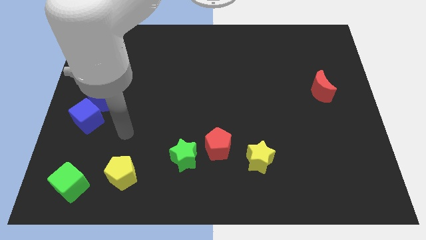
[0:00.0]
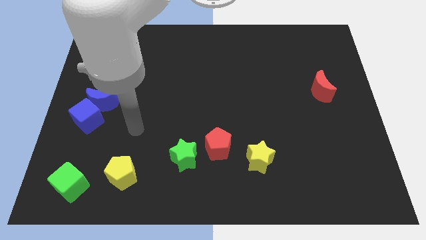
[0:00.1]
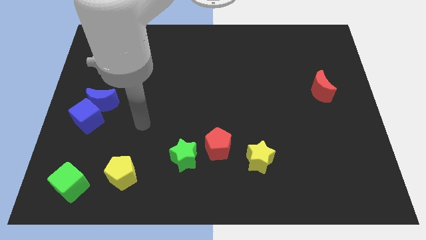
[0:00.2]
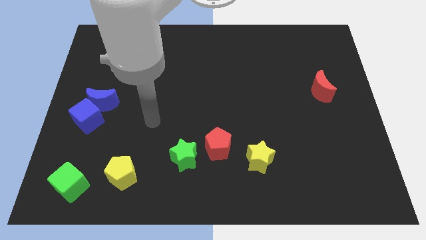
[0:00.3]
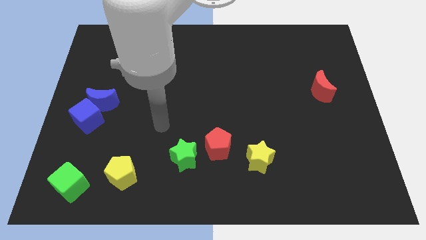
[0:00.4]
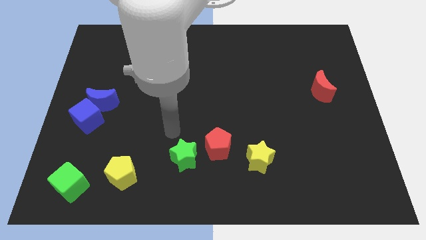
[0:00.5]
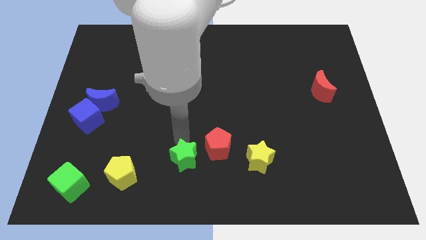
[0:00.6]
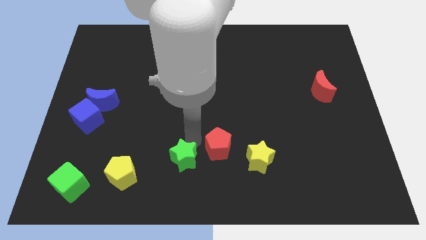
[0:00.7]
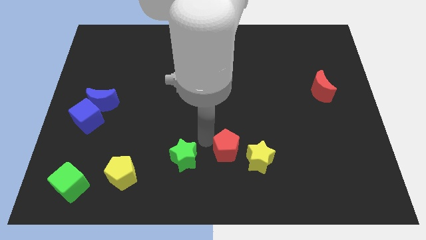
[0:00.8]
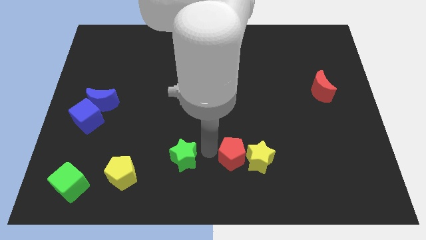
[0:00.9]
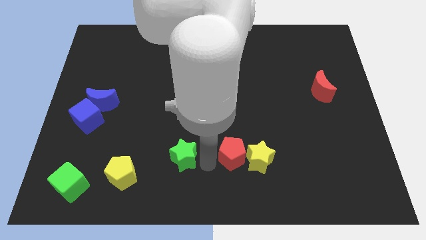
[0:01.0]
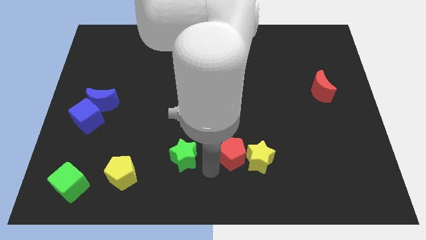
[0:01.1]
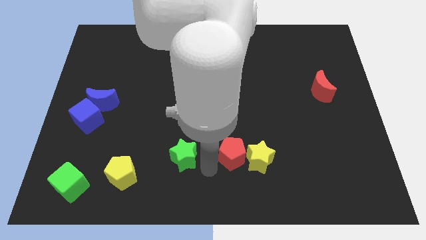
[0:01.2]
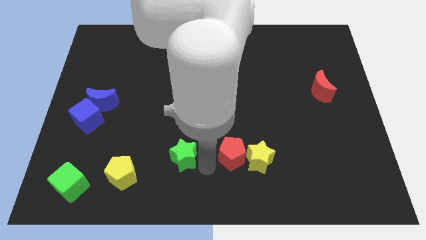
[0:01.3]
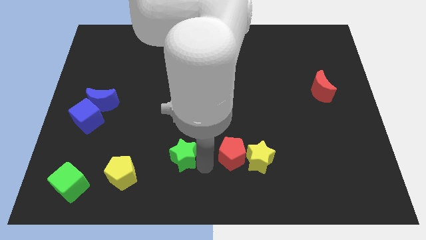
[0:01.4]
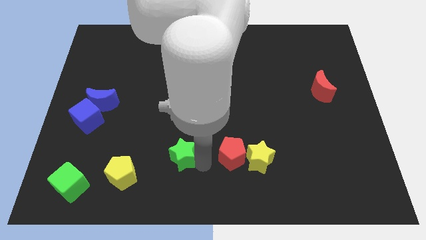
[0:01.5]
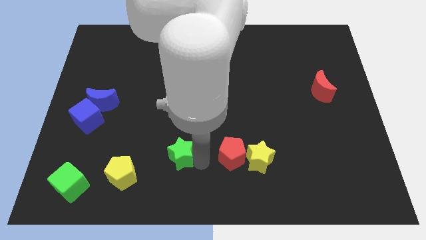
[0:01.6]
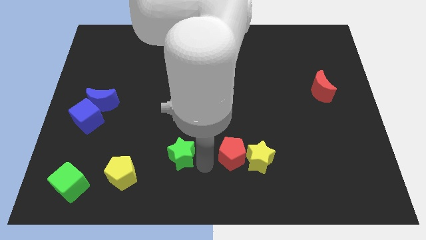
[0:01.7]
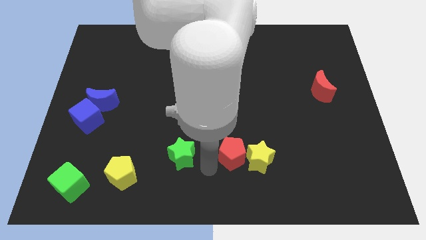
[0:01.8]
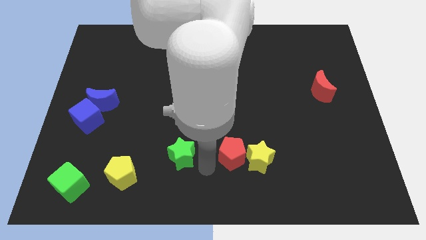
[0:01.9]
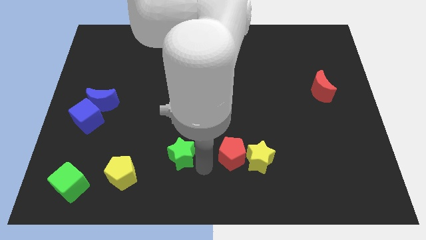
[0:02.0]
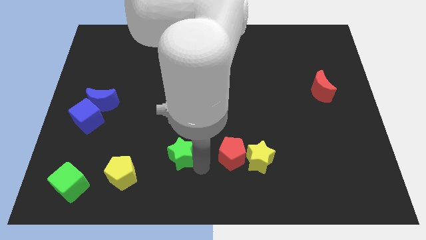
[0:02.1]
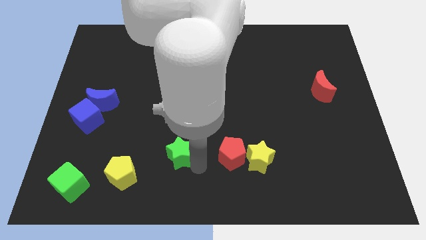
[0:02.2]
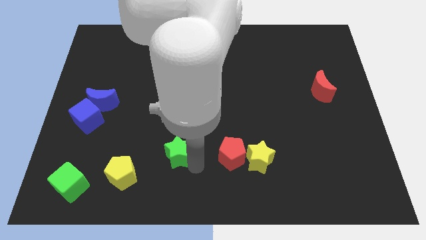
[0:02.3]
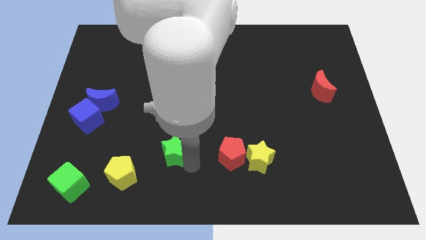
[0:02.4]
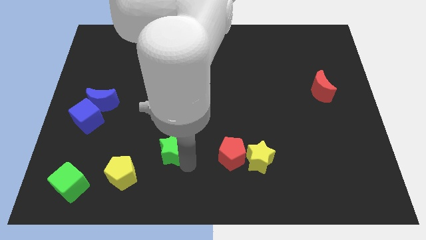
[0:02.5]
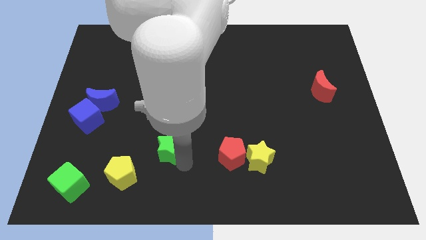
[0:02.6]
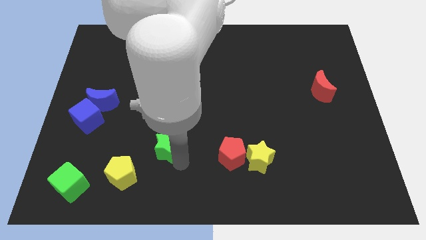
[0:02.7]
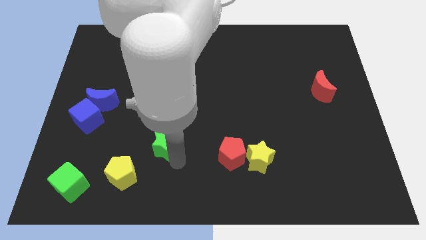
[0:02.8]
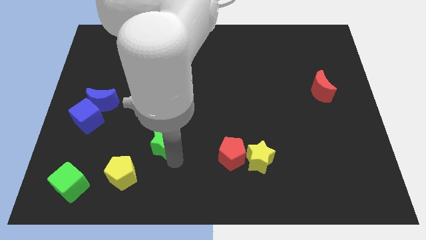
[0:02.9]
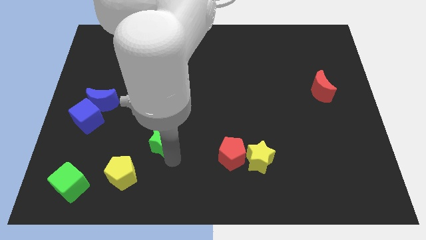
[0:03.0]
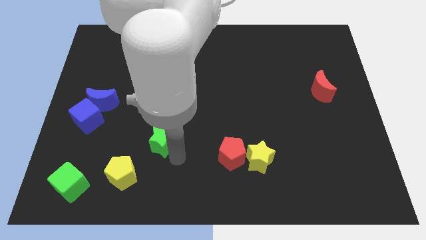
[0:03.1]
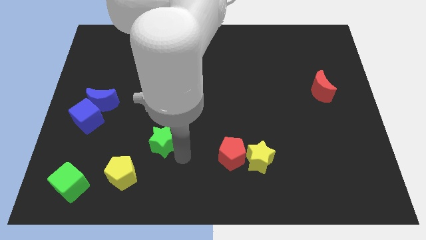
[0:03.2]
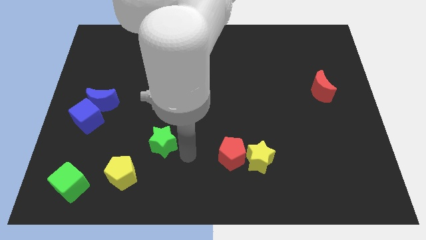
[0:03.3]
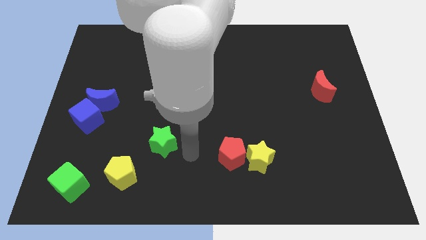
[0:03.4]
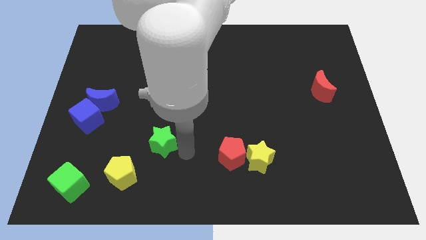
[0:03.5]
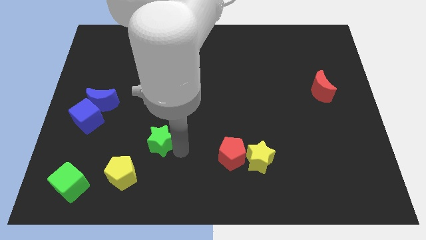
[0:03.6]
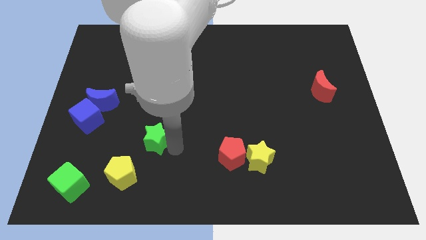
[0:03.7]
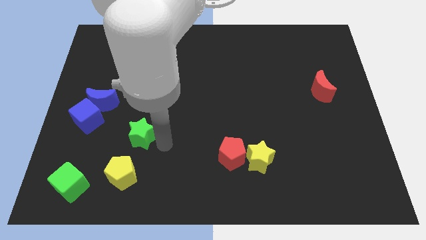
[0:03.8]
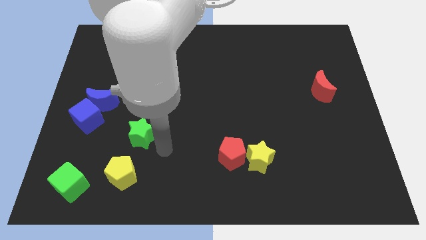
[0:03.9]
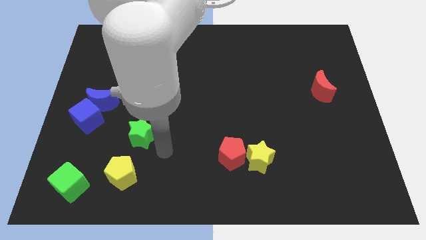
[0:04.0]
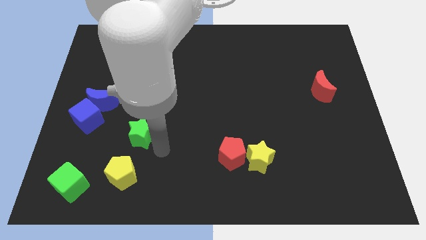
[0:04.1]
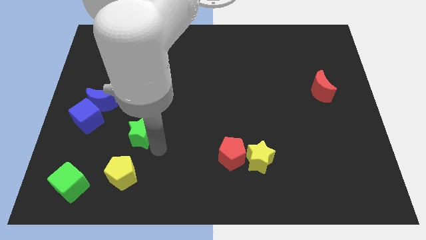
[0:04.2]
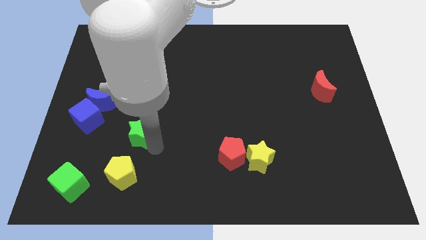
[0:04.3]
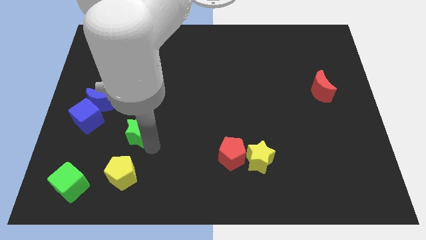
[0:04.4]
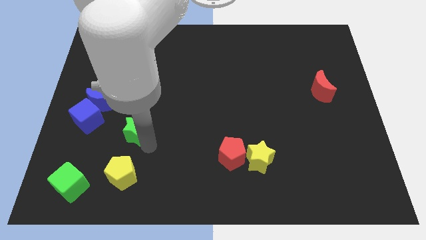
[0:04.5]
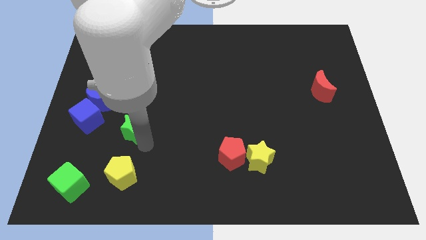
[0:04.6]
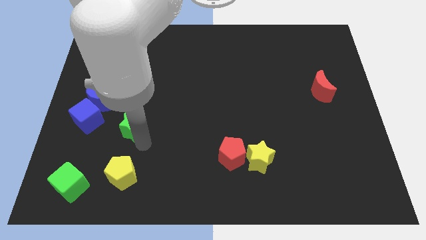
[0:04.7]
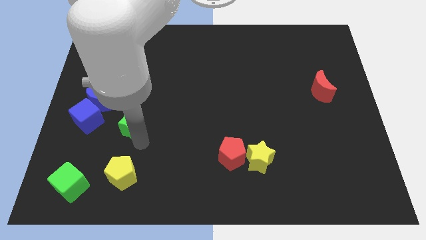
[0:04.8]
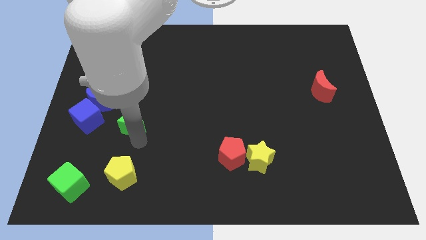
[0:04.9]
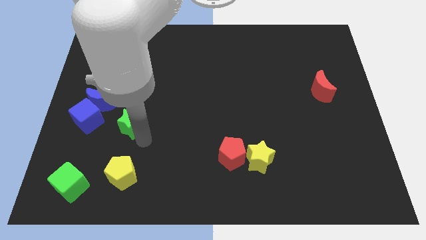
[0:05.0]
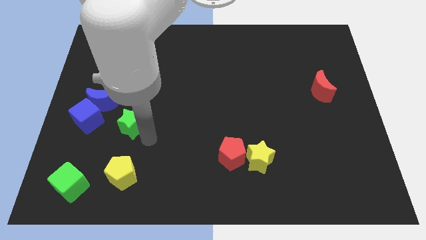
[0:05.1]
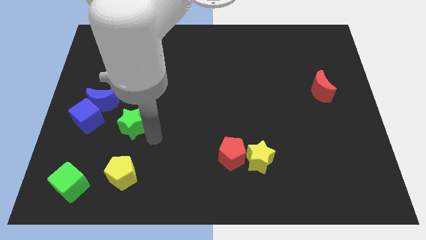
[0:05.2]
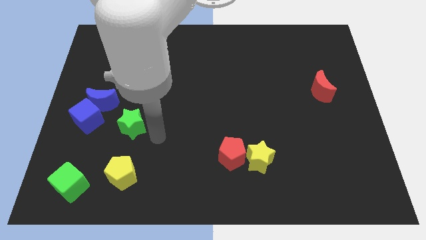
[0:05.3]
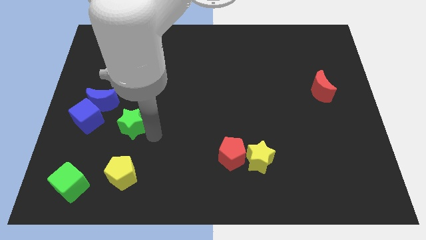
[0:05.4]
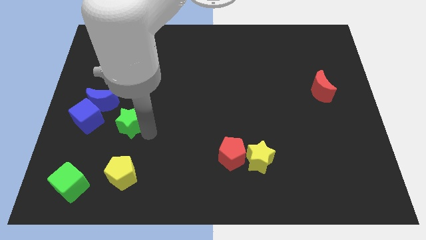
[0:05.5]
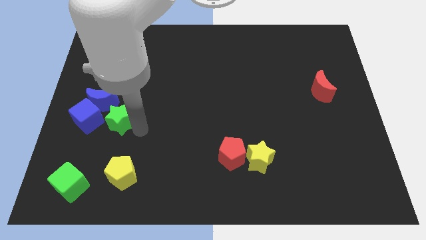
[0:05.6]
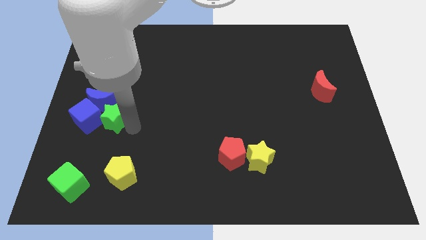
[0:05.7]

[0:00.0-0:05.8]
push the green star to the blue moon

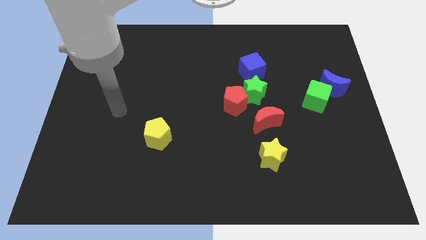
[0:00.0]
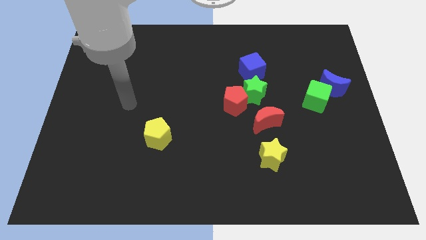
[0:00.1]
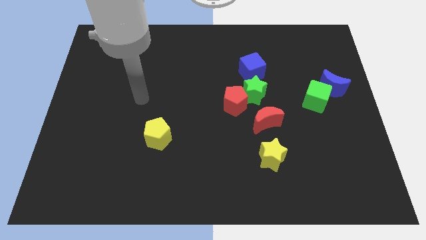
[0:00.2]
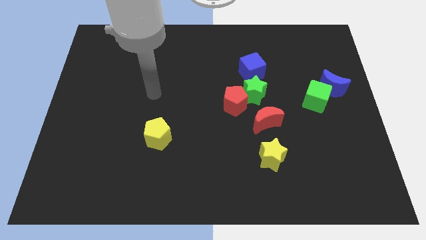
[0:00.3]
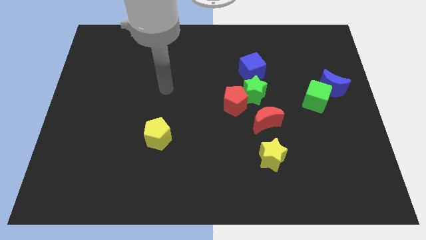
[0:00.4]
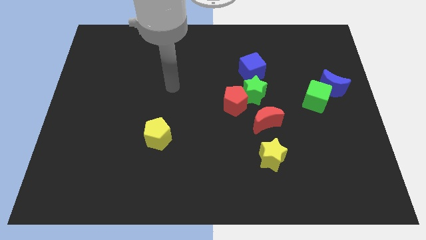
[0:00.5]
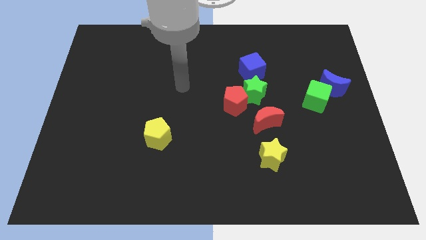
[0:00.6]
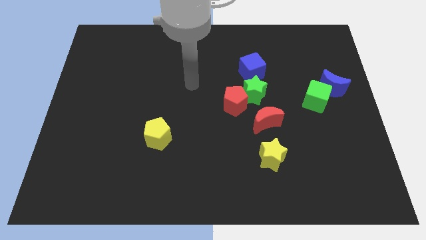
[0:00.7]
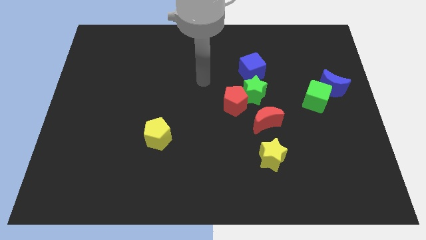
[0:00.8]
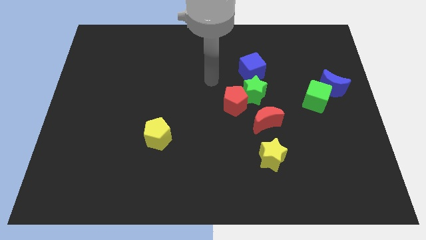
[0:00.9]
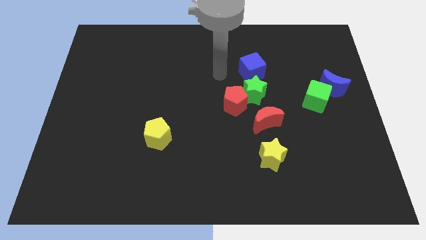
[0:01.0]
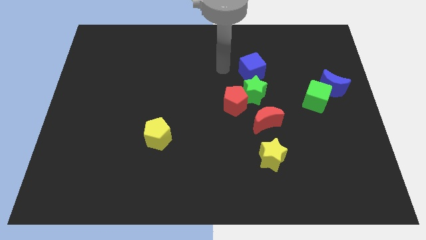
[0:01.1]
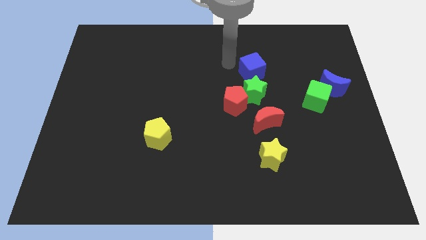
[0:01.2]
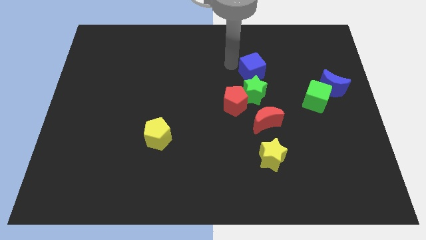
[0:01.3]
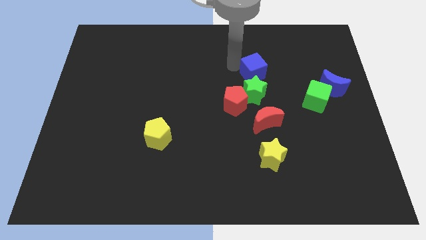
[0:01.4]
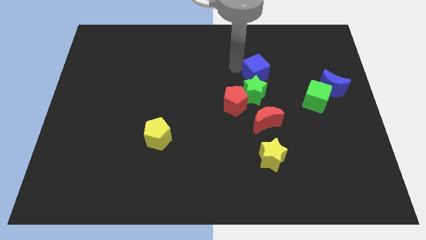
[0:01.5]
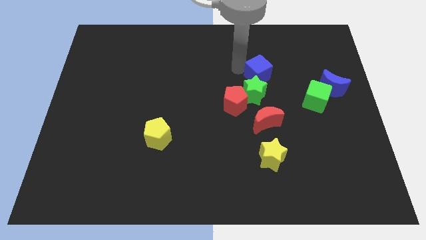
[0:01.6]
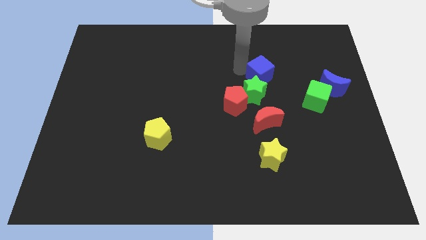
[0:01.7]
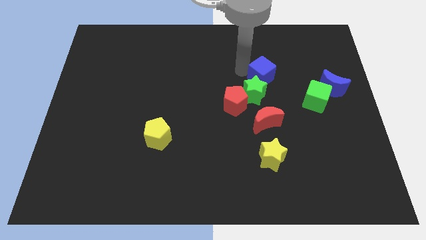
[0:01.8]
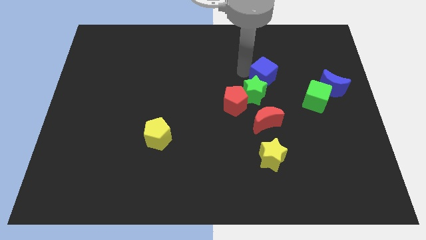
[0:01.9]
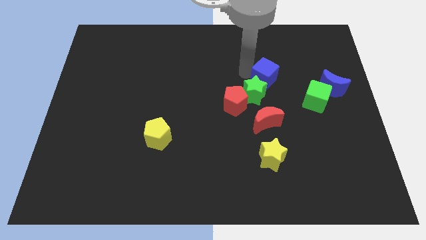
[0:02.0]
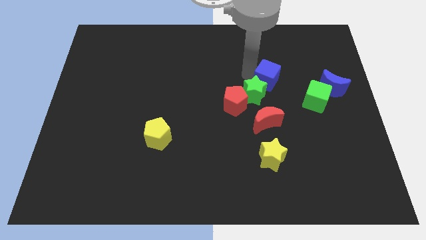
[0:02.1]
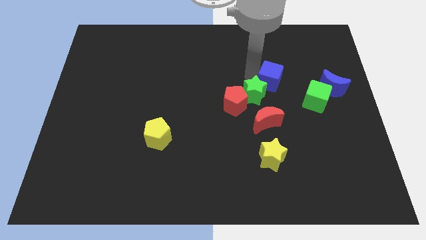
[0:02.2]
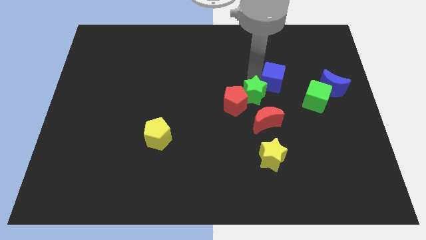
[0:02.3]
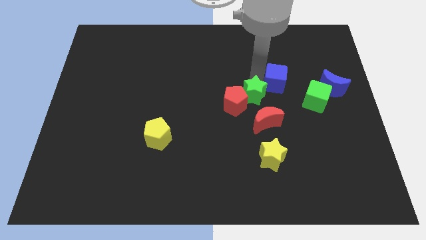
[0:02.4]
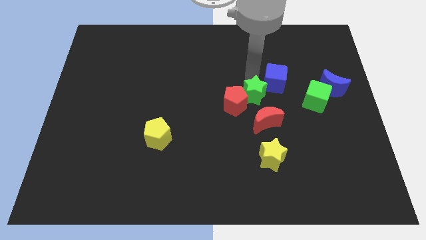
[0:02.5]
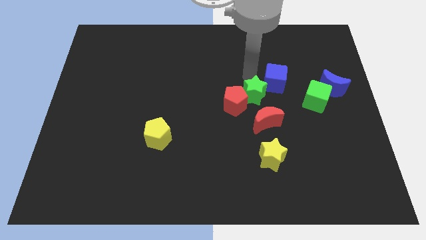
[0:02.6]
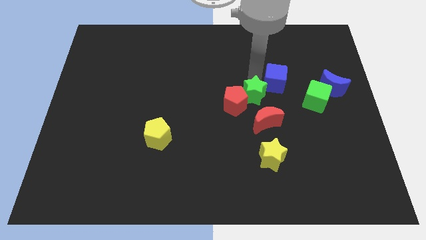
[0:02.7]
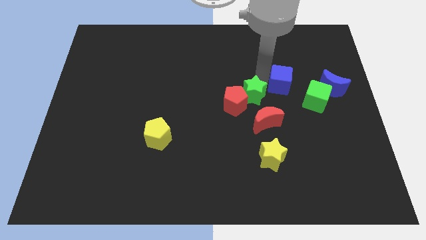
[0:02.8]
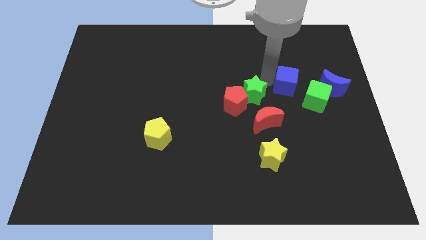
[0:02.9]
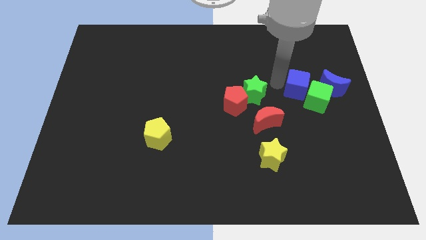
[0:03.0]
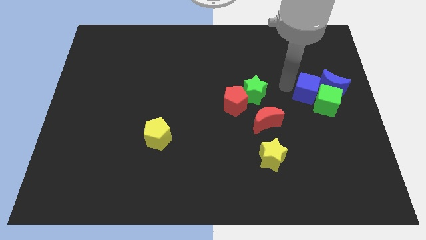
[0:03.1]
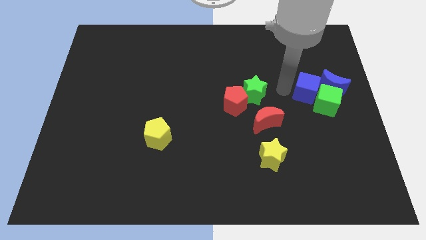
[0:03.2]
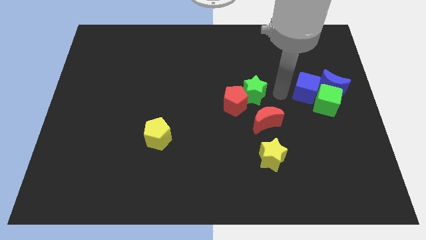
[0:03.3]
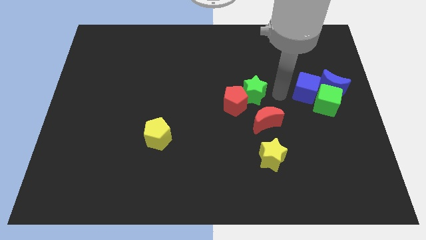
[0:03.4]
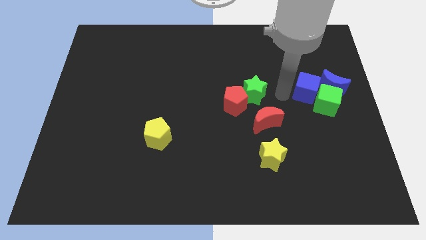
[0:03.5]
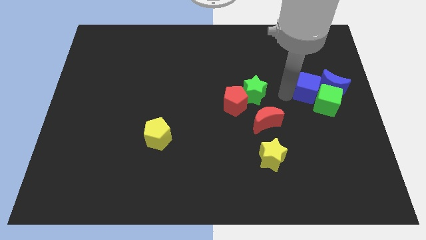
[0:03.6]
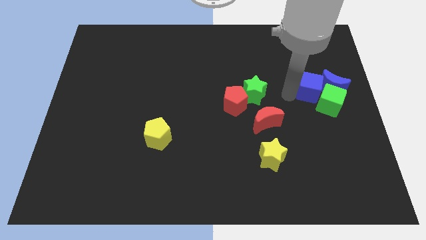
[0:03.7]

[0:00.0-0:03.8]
move the blue cube towards the blue moon
